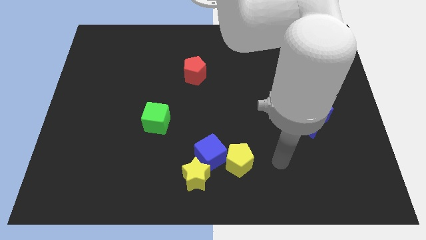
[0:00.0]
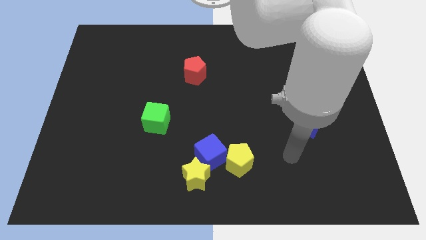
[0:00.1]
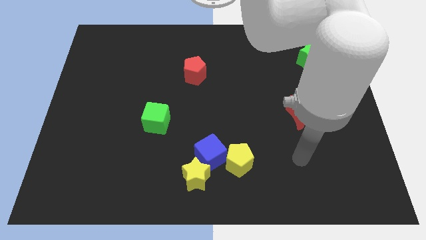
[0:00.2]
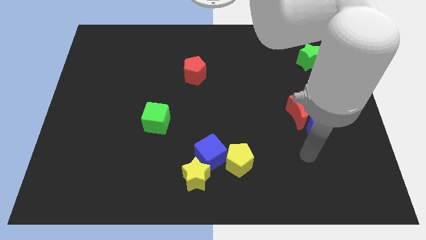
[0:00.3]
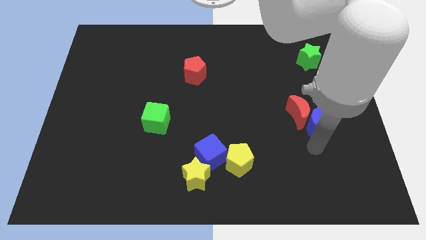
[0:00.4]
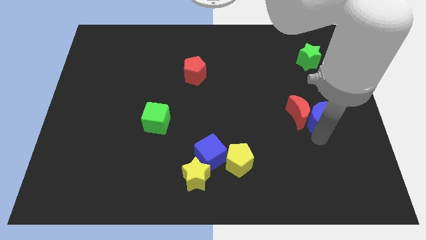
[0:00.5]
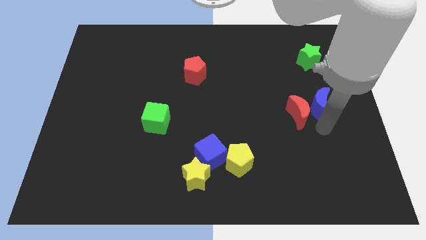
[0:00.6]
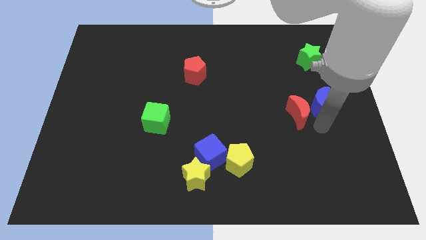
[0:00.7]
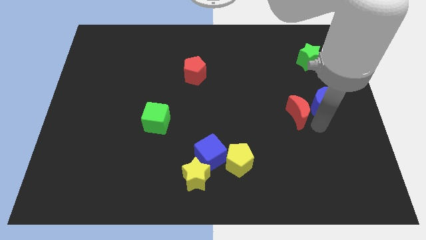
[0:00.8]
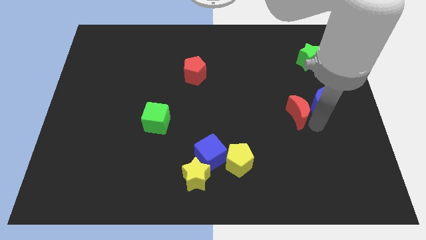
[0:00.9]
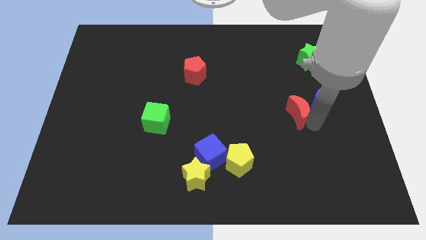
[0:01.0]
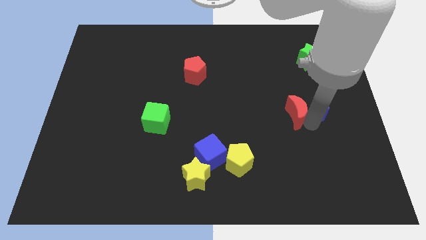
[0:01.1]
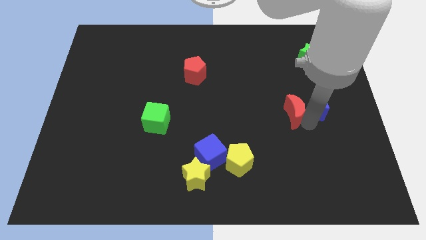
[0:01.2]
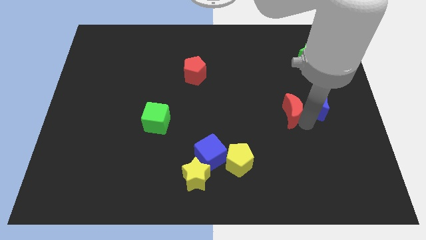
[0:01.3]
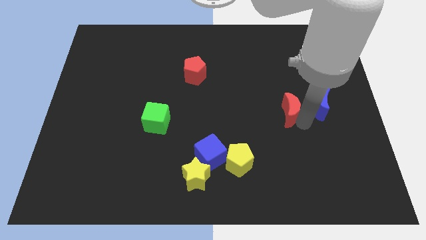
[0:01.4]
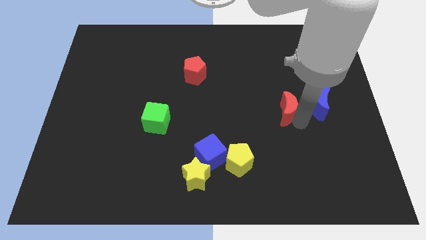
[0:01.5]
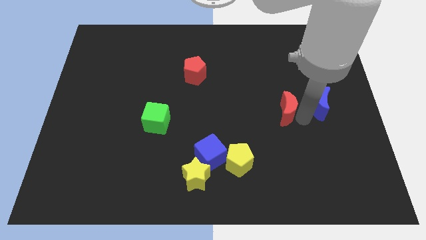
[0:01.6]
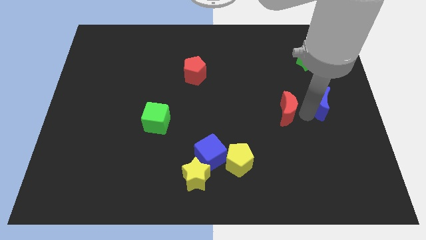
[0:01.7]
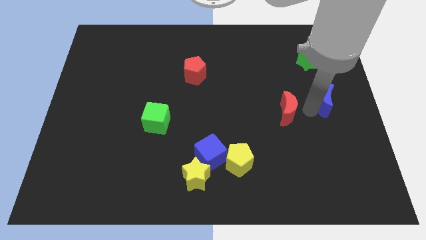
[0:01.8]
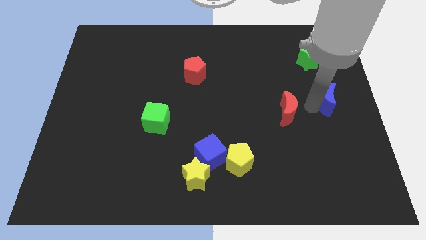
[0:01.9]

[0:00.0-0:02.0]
move the red moon away from the blue moon

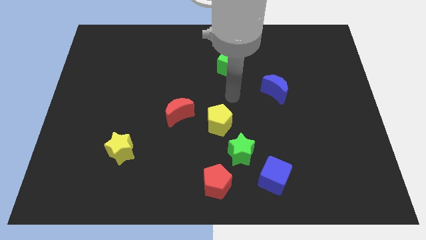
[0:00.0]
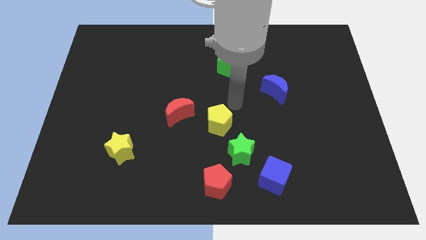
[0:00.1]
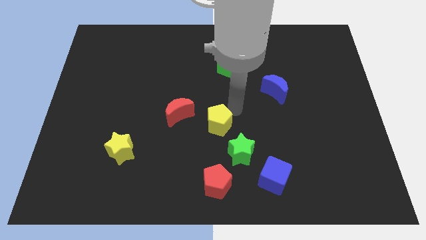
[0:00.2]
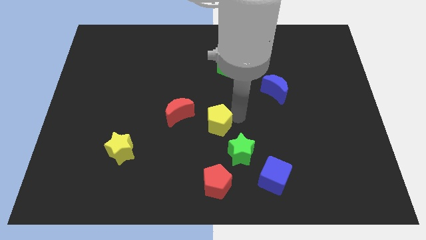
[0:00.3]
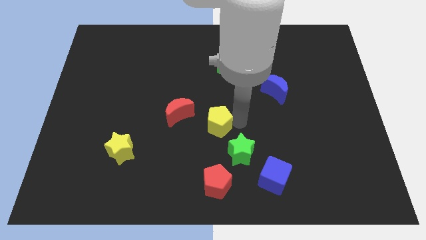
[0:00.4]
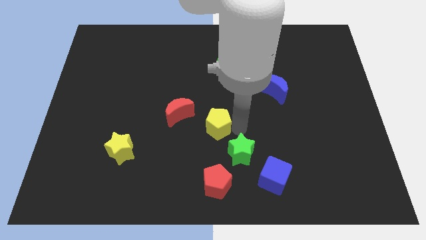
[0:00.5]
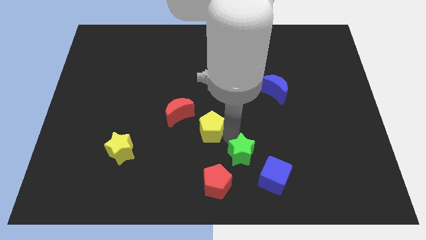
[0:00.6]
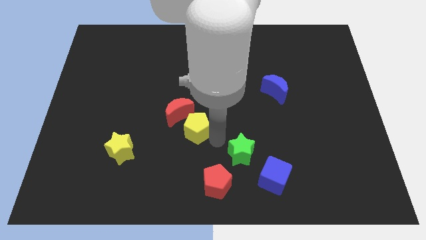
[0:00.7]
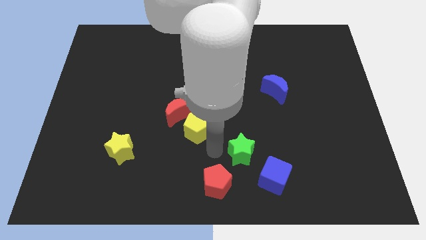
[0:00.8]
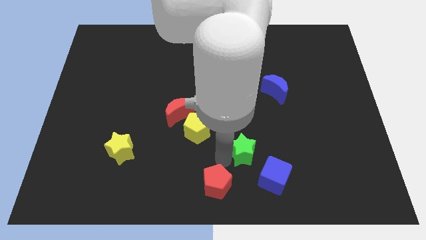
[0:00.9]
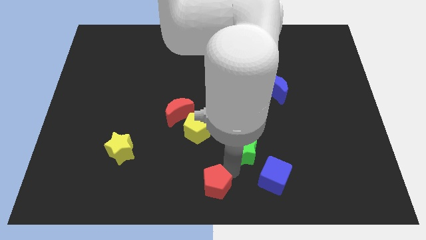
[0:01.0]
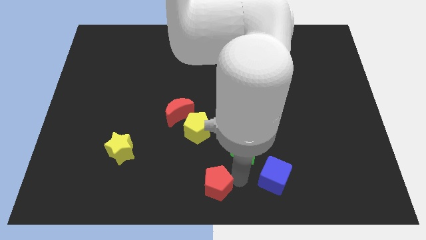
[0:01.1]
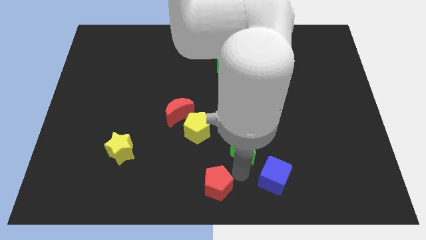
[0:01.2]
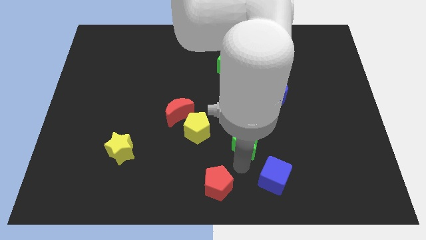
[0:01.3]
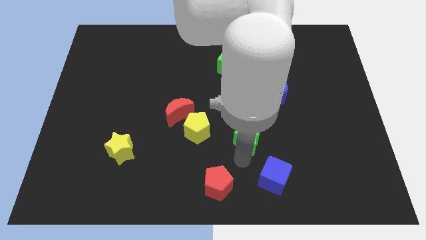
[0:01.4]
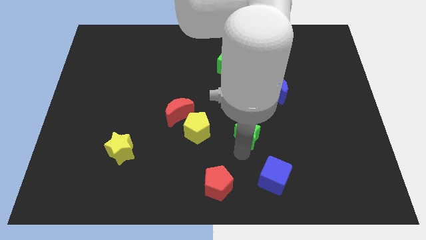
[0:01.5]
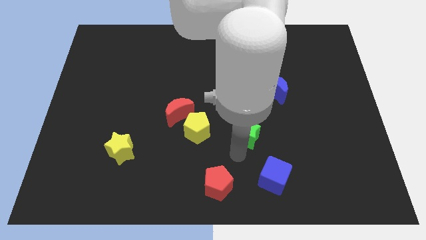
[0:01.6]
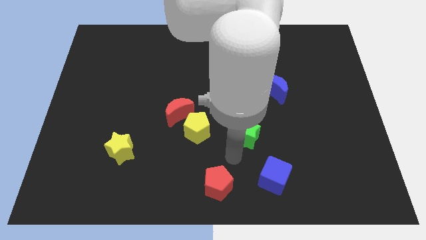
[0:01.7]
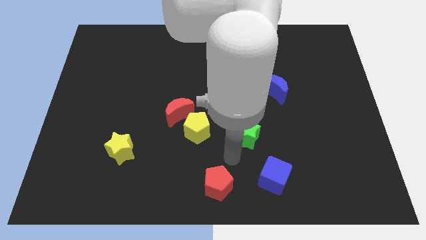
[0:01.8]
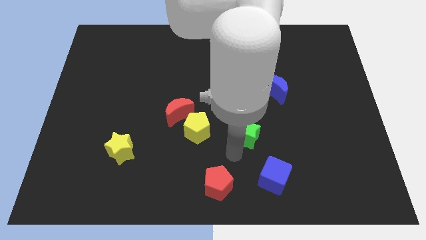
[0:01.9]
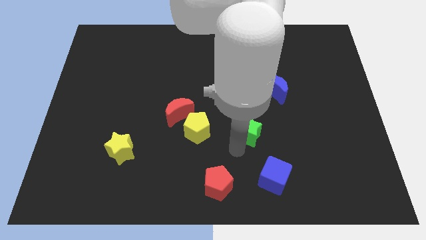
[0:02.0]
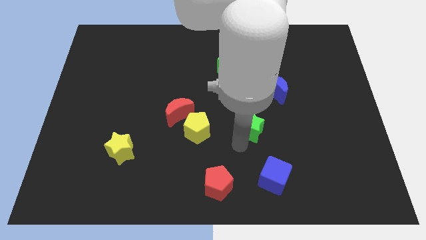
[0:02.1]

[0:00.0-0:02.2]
move the green star away from the clump

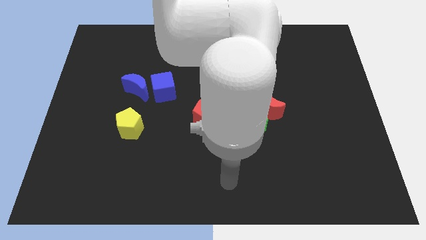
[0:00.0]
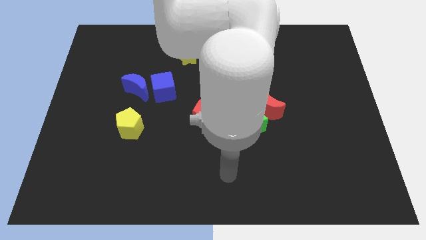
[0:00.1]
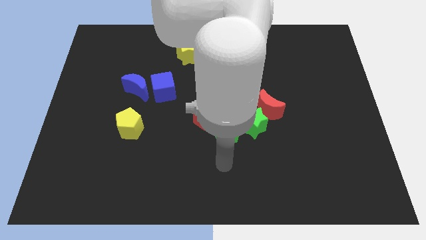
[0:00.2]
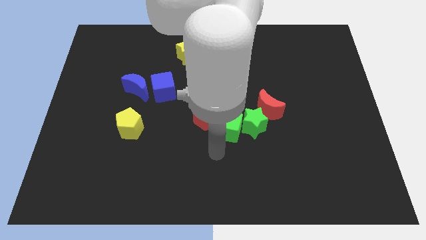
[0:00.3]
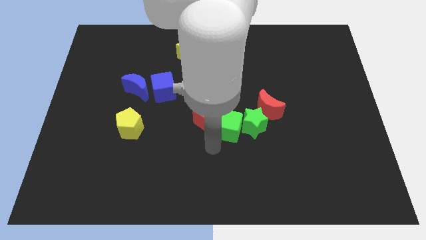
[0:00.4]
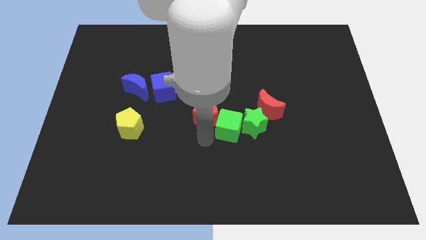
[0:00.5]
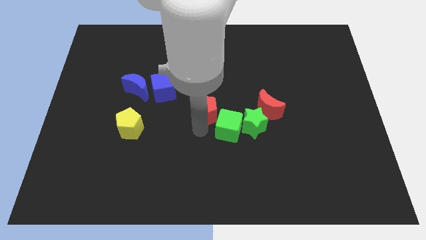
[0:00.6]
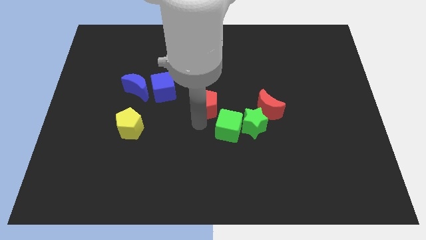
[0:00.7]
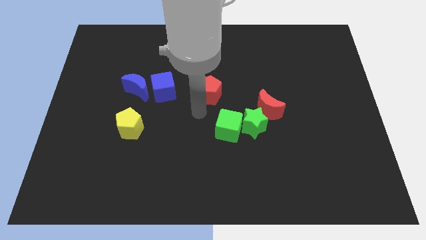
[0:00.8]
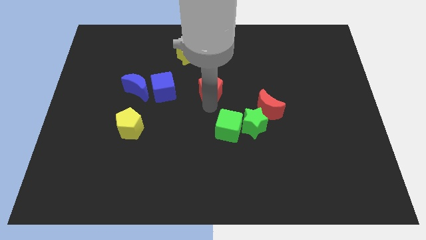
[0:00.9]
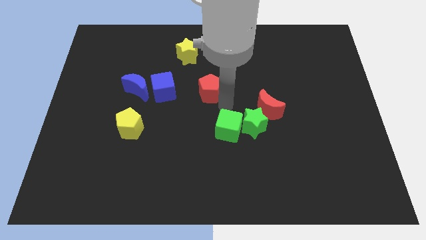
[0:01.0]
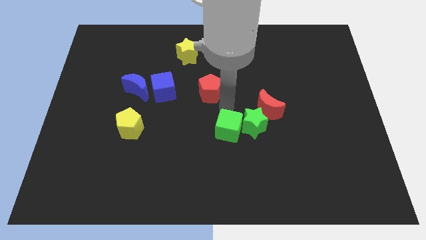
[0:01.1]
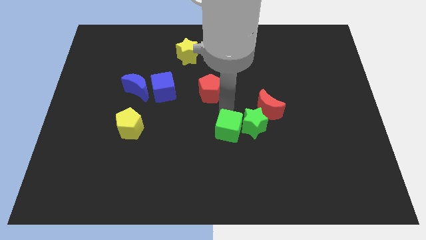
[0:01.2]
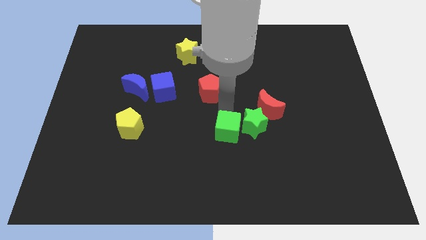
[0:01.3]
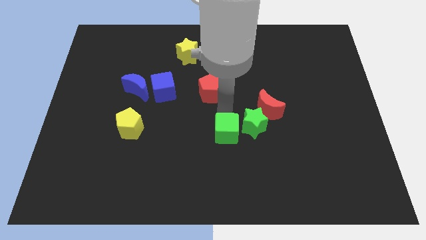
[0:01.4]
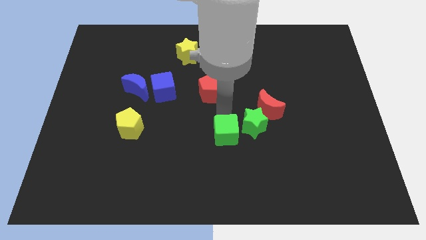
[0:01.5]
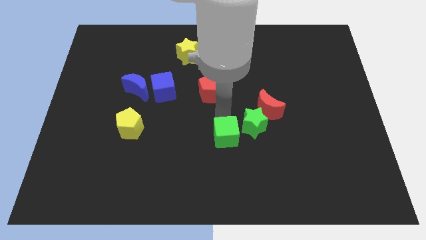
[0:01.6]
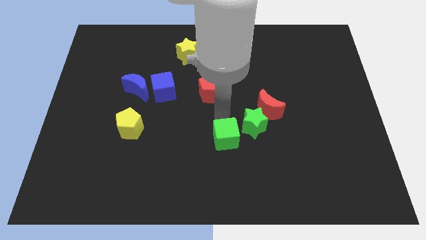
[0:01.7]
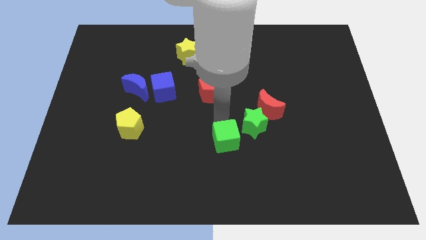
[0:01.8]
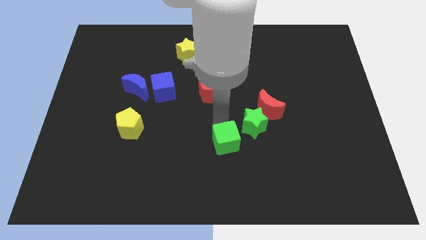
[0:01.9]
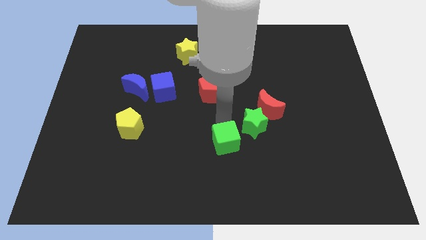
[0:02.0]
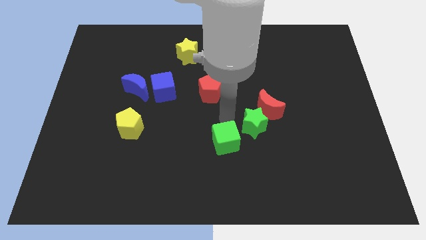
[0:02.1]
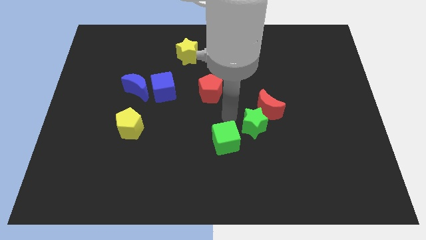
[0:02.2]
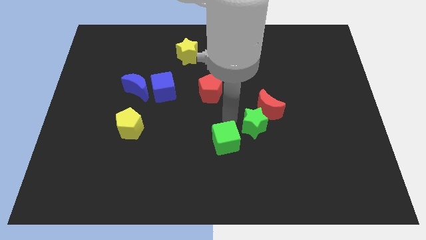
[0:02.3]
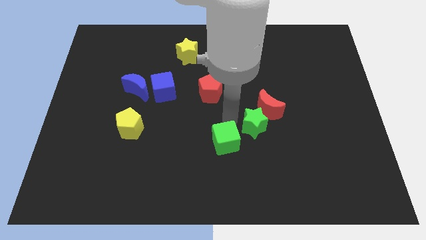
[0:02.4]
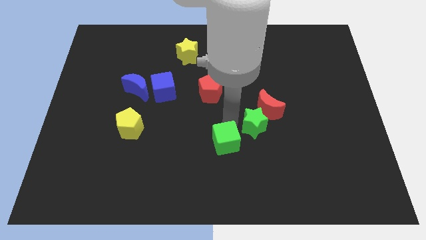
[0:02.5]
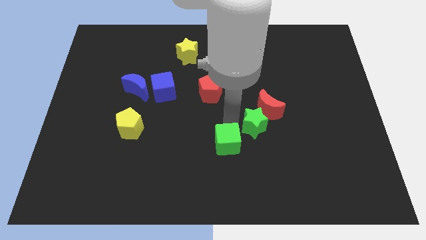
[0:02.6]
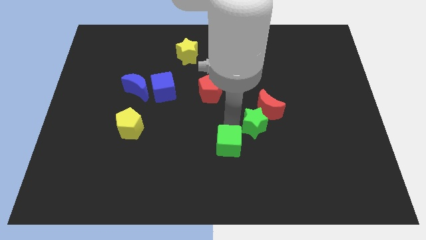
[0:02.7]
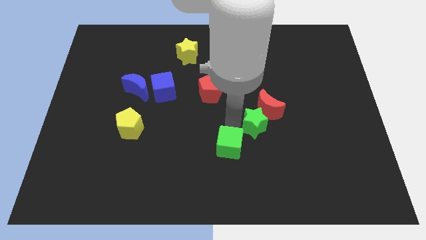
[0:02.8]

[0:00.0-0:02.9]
move the green cube away from the green star and red pentagon

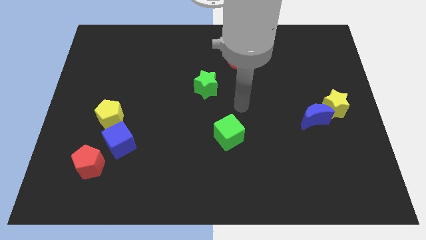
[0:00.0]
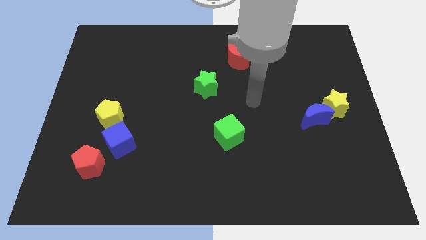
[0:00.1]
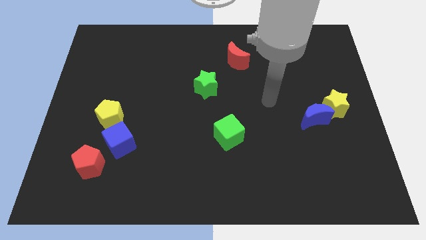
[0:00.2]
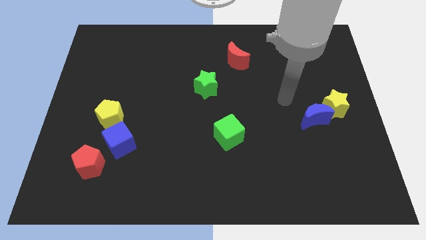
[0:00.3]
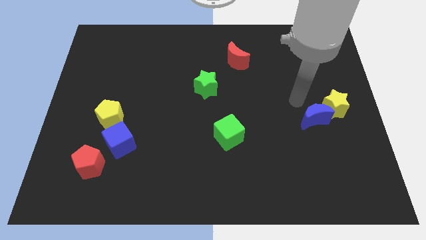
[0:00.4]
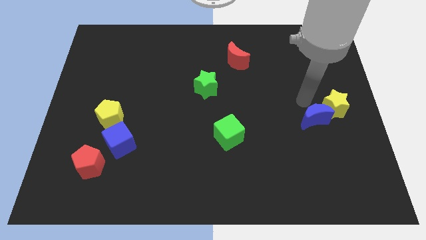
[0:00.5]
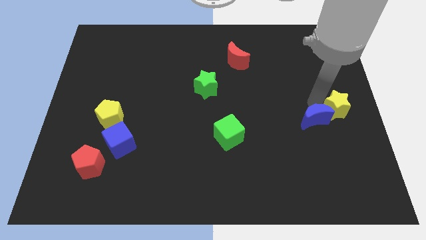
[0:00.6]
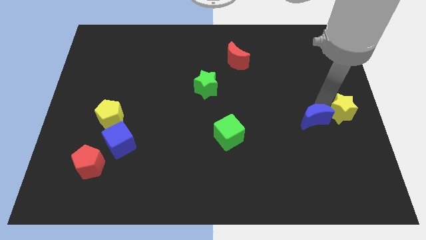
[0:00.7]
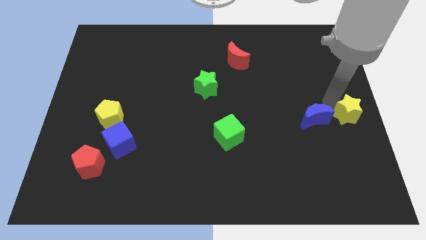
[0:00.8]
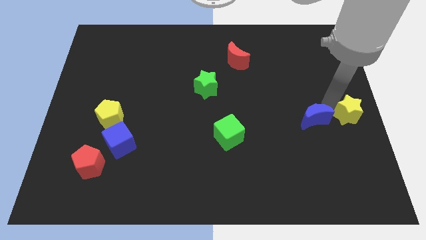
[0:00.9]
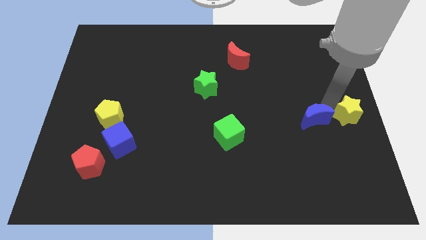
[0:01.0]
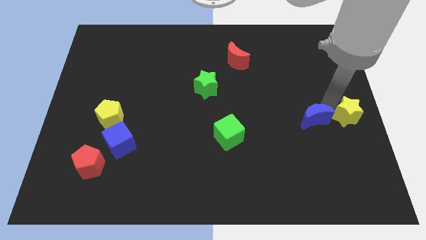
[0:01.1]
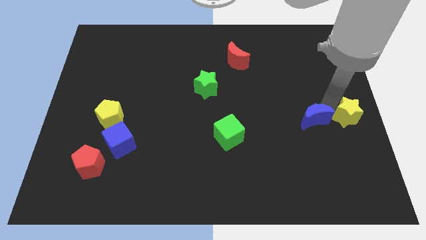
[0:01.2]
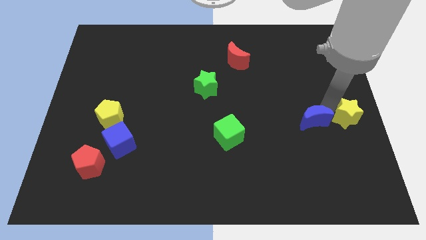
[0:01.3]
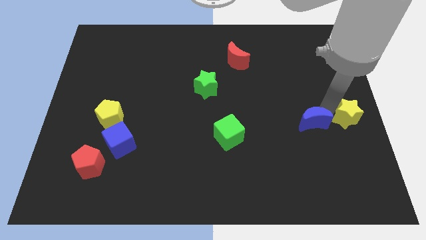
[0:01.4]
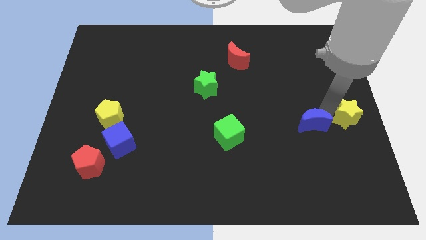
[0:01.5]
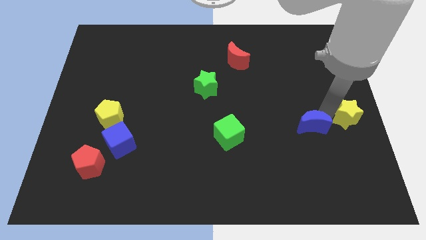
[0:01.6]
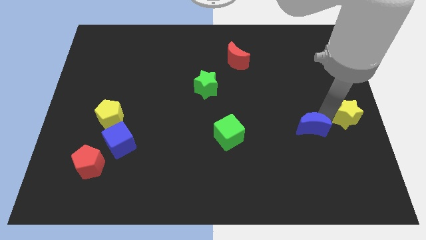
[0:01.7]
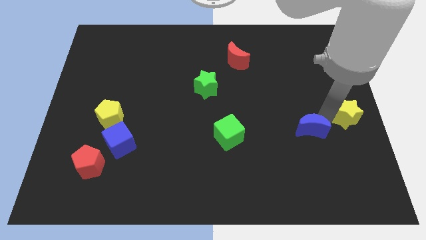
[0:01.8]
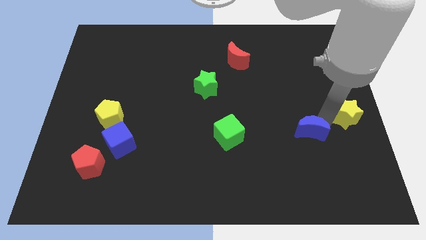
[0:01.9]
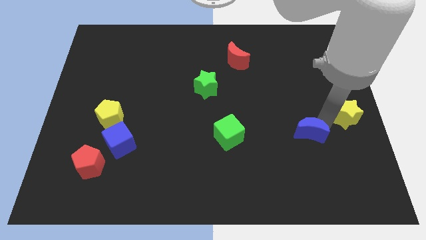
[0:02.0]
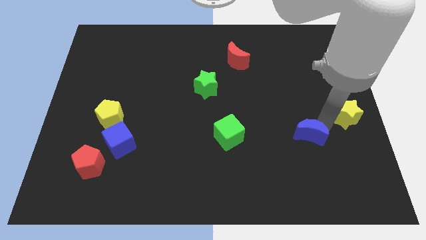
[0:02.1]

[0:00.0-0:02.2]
move the blue moon away from the yellow star
